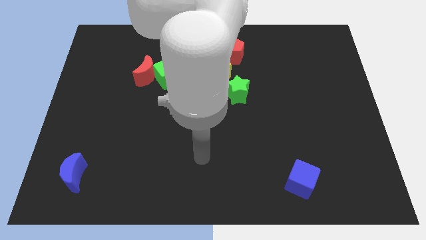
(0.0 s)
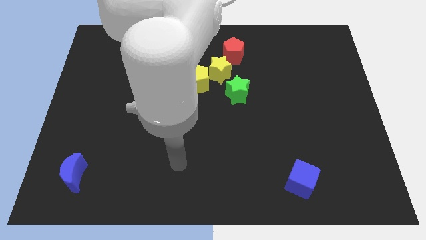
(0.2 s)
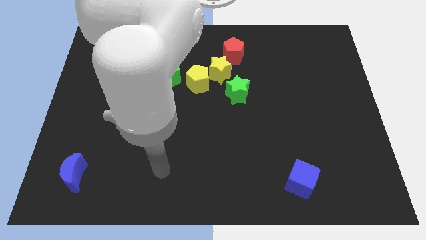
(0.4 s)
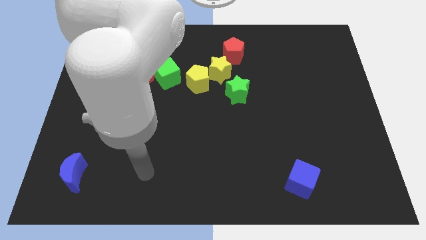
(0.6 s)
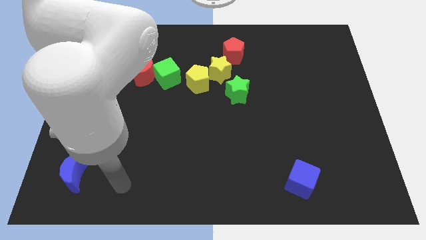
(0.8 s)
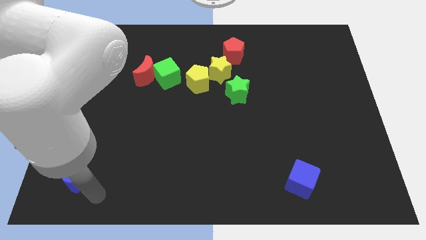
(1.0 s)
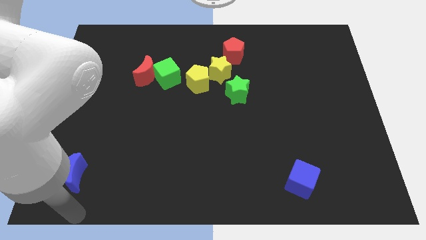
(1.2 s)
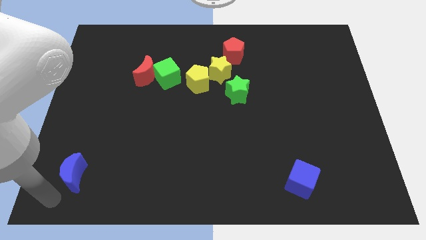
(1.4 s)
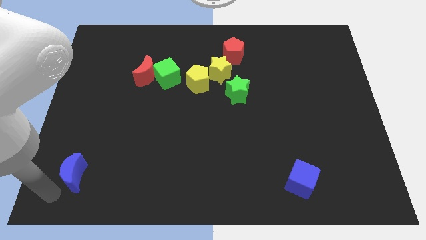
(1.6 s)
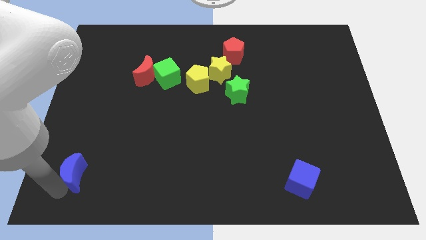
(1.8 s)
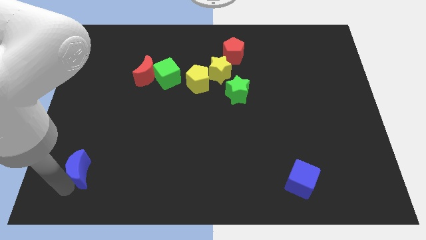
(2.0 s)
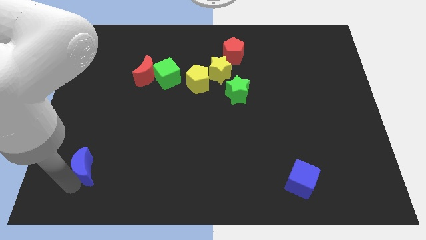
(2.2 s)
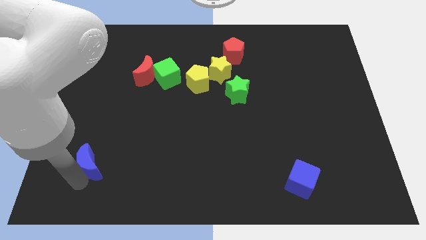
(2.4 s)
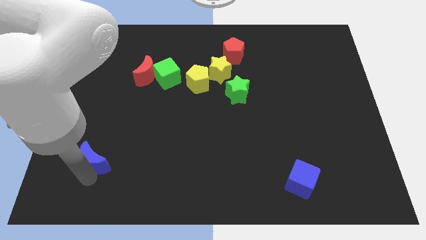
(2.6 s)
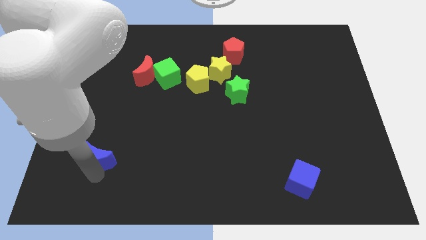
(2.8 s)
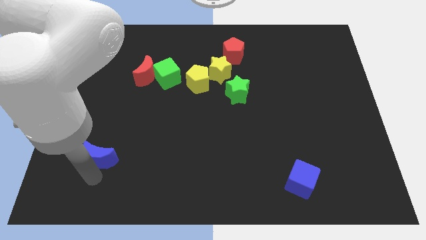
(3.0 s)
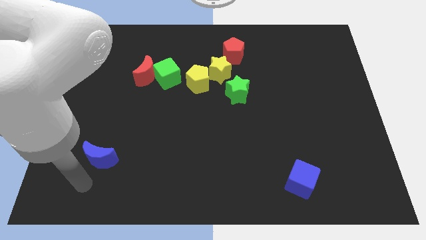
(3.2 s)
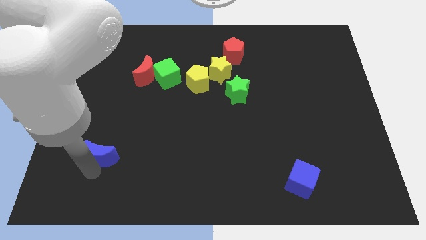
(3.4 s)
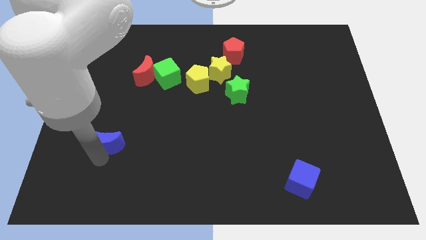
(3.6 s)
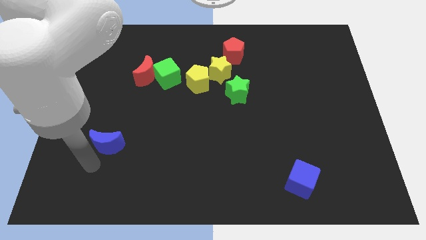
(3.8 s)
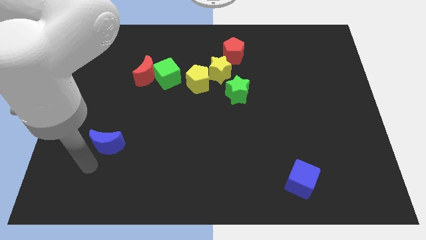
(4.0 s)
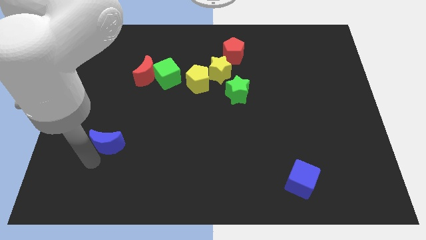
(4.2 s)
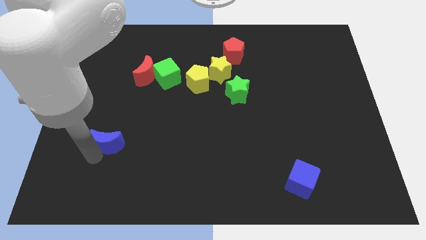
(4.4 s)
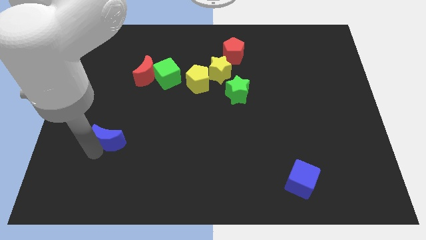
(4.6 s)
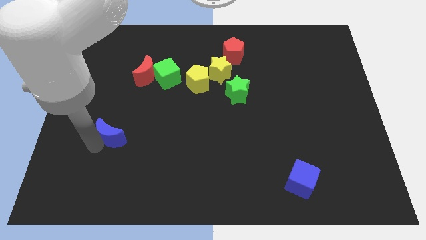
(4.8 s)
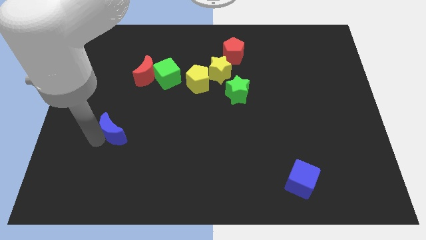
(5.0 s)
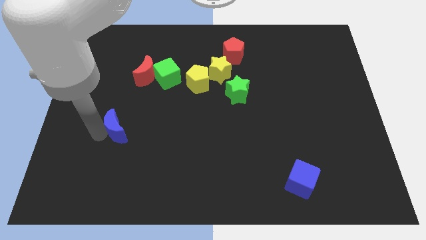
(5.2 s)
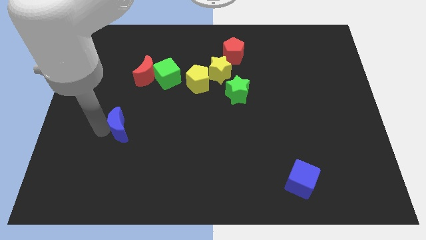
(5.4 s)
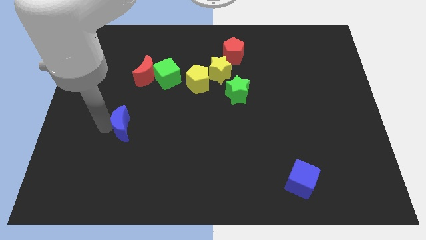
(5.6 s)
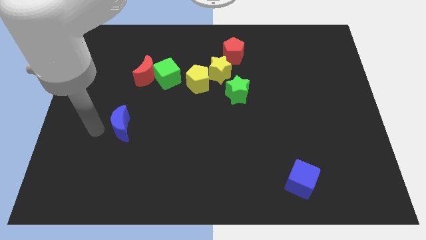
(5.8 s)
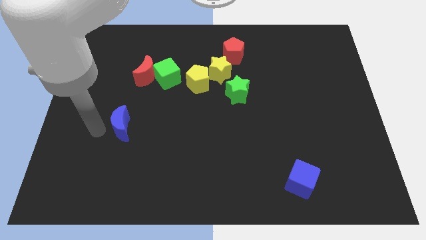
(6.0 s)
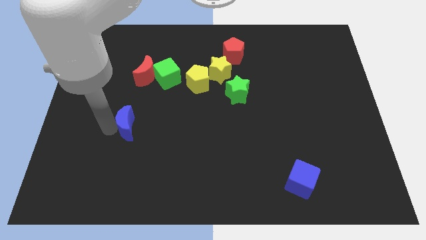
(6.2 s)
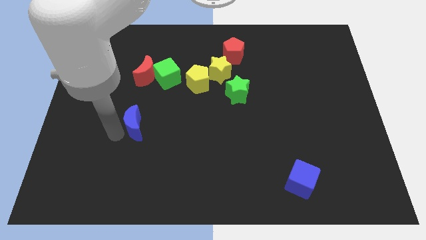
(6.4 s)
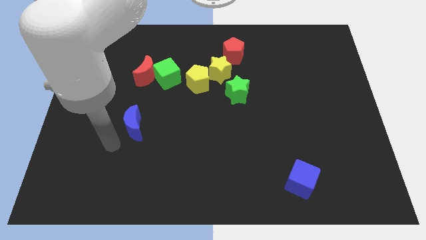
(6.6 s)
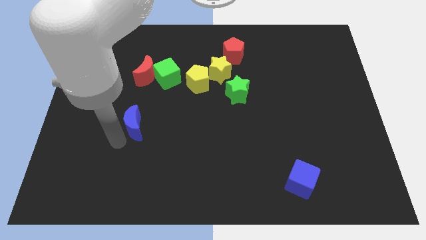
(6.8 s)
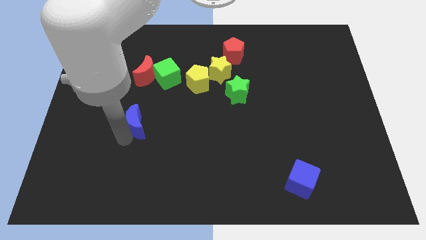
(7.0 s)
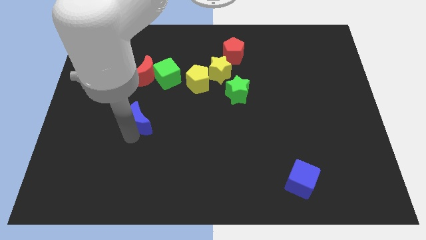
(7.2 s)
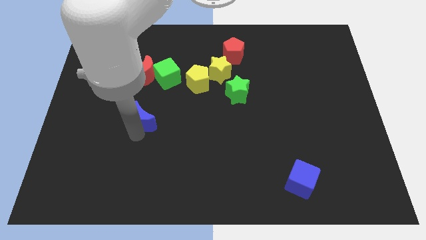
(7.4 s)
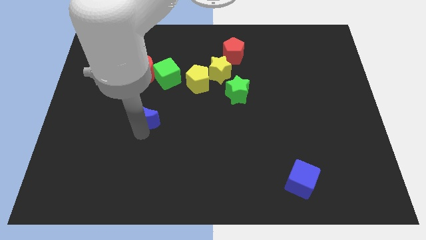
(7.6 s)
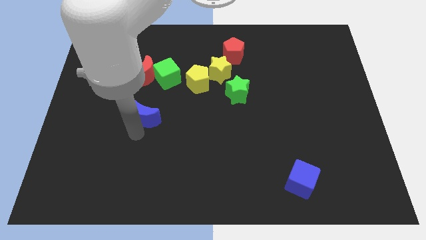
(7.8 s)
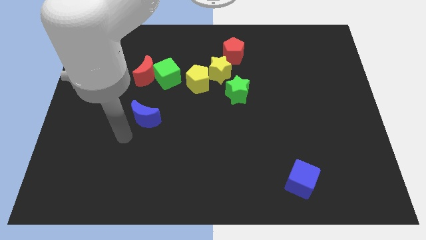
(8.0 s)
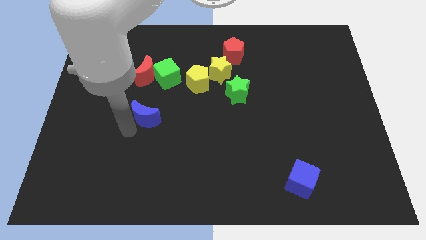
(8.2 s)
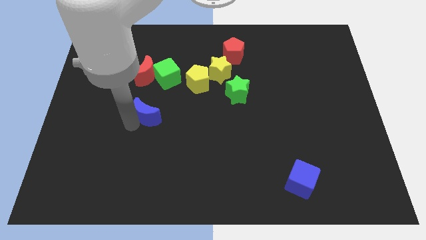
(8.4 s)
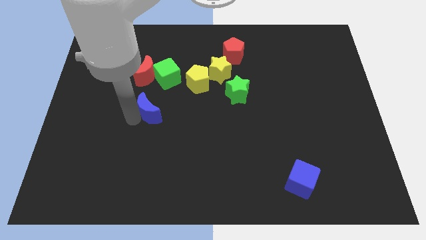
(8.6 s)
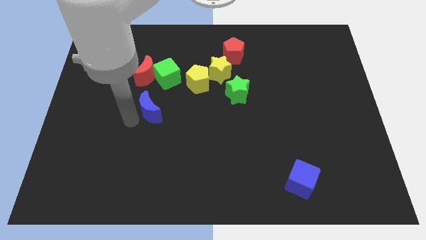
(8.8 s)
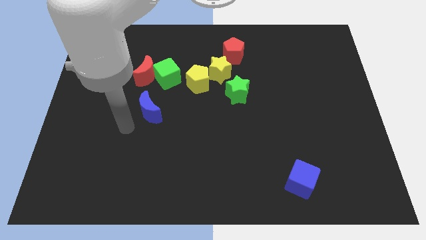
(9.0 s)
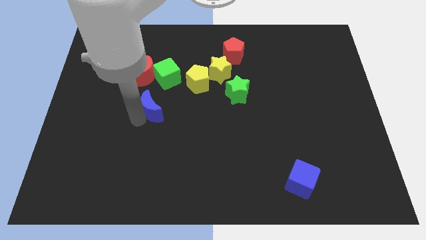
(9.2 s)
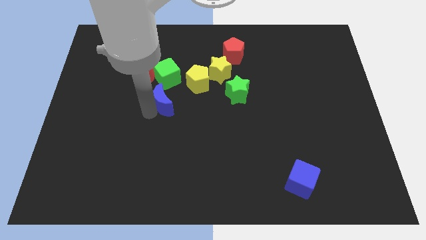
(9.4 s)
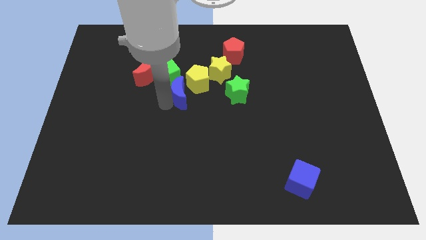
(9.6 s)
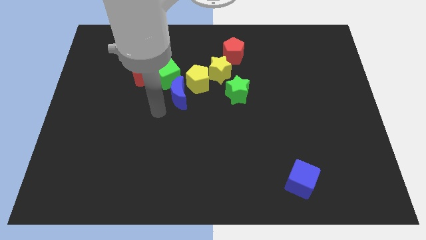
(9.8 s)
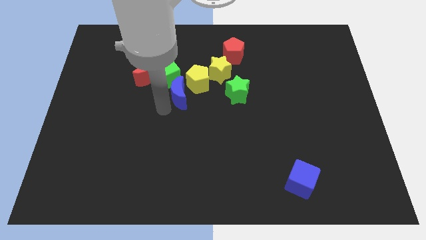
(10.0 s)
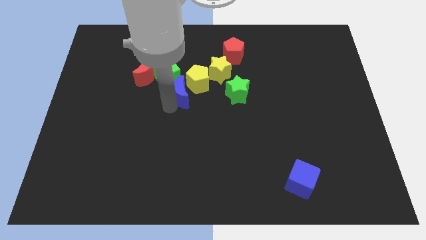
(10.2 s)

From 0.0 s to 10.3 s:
move the blue moon next to the yellow pentagon

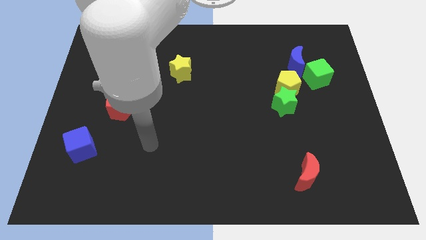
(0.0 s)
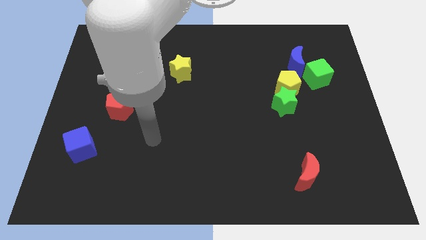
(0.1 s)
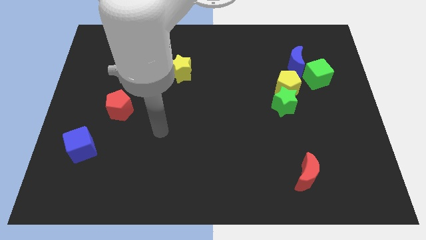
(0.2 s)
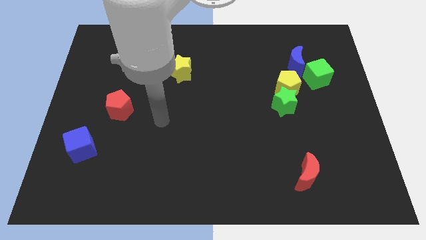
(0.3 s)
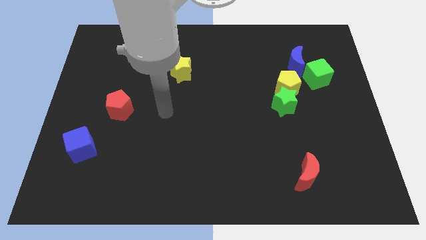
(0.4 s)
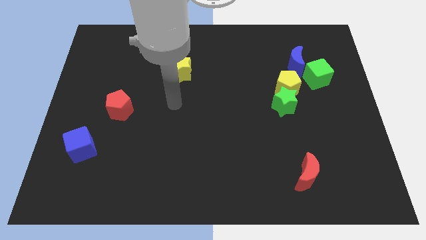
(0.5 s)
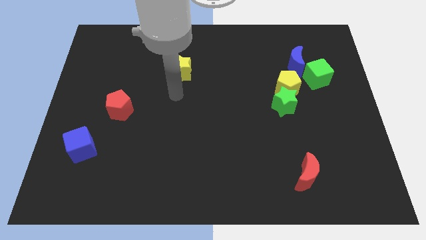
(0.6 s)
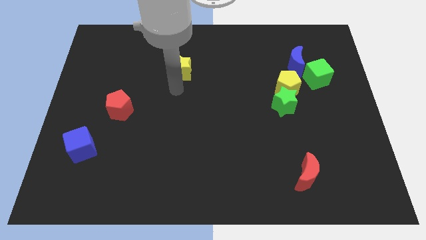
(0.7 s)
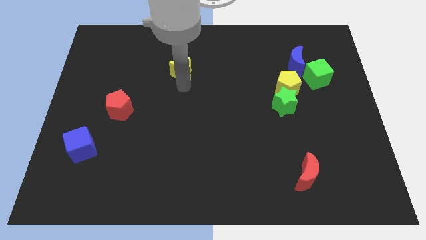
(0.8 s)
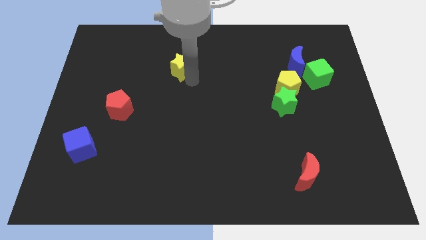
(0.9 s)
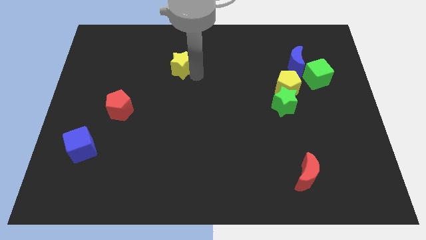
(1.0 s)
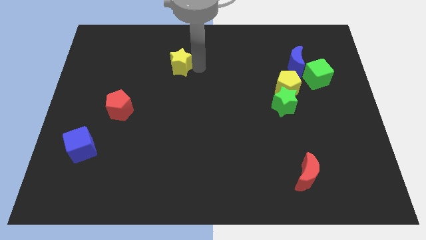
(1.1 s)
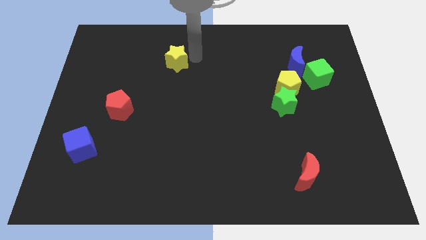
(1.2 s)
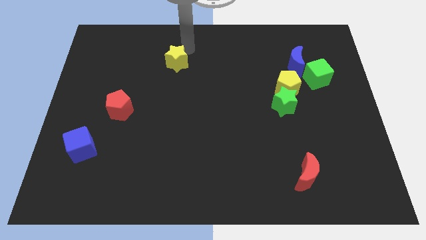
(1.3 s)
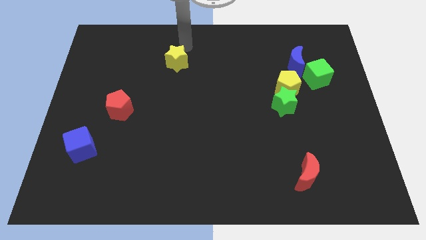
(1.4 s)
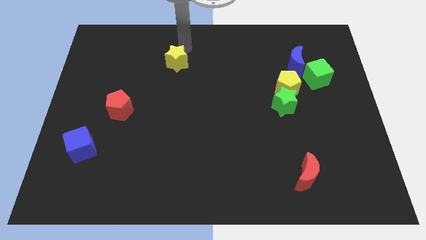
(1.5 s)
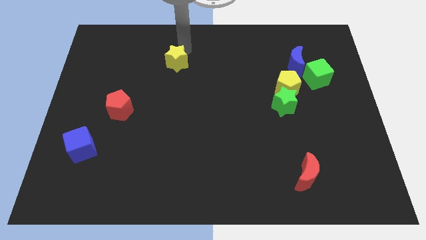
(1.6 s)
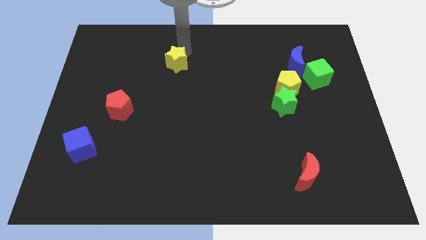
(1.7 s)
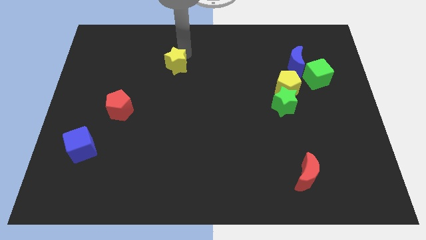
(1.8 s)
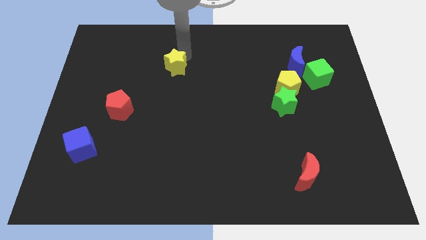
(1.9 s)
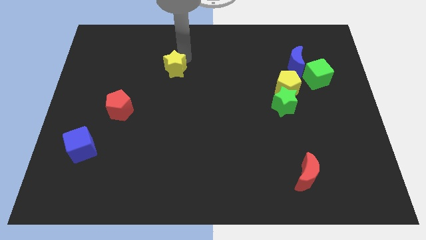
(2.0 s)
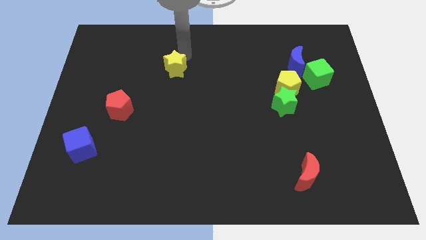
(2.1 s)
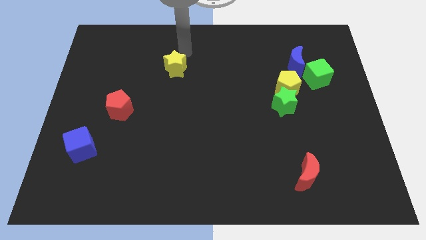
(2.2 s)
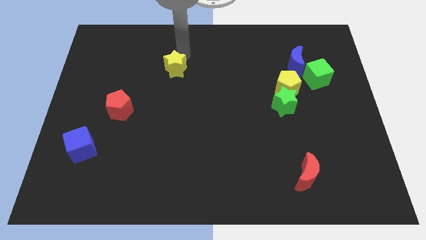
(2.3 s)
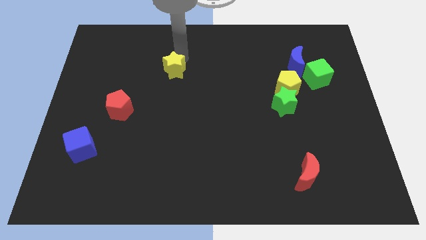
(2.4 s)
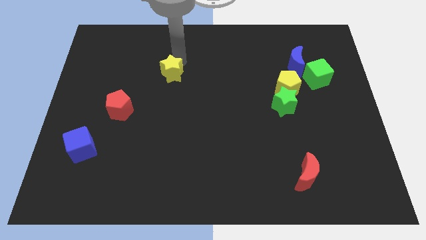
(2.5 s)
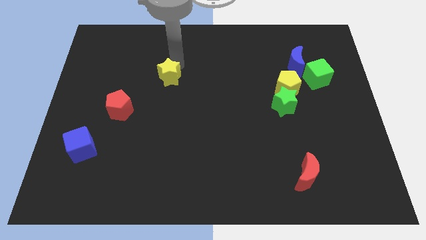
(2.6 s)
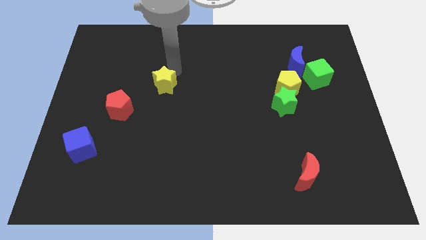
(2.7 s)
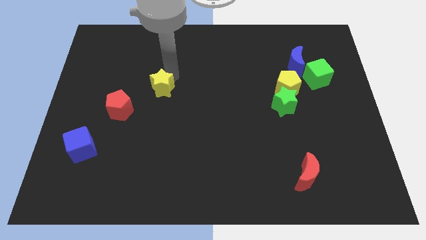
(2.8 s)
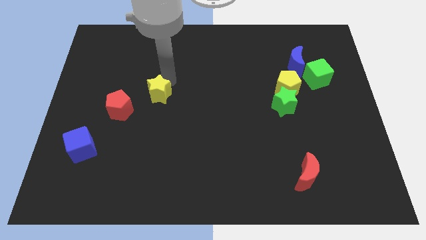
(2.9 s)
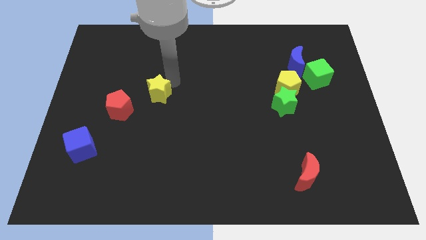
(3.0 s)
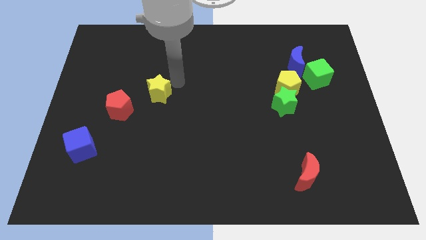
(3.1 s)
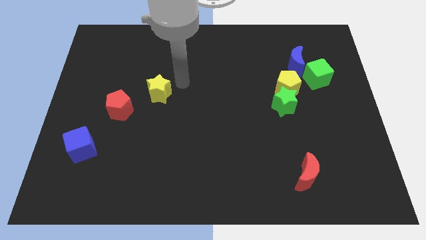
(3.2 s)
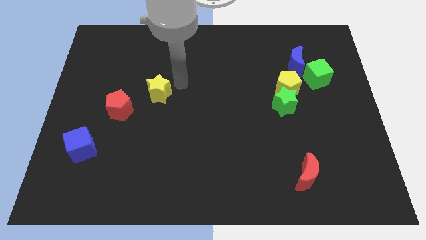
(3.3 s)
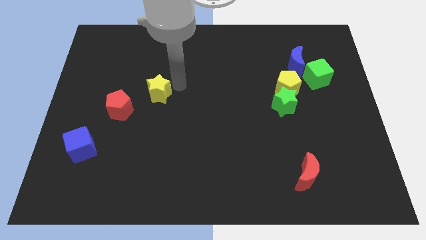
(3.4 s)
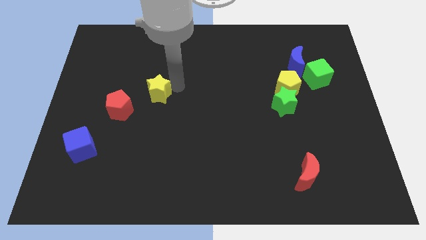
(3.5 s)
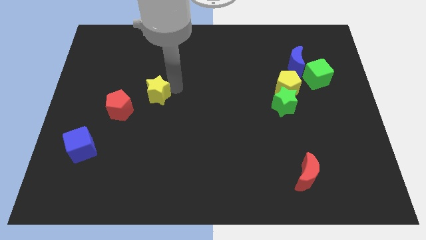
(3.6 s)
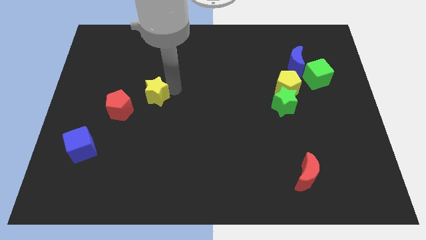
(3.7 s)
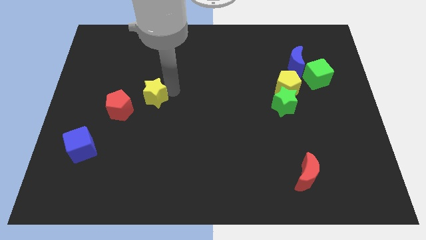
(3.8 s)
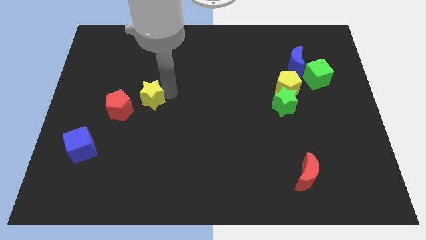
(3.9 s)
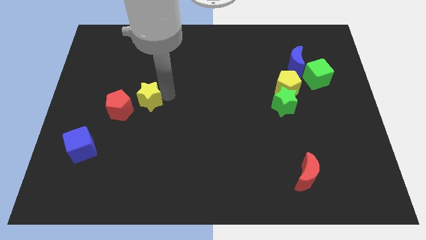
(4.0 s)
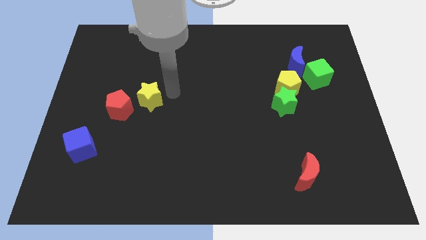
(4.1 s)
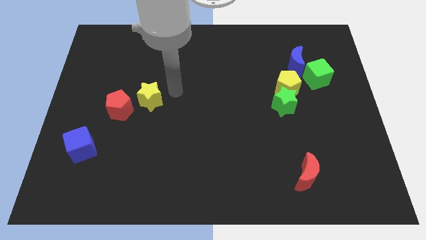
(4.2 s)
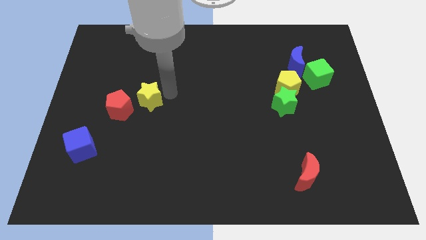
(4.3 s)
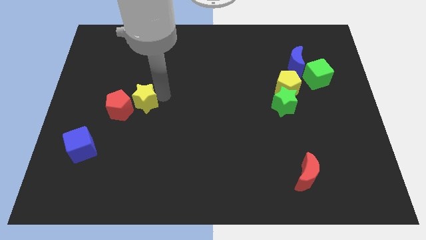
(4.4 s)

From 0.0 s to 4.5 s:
push the yellow star to the red pentagon
